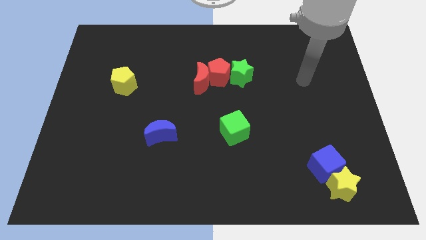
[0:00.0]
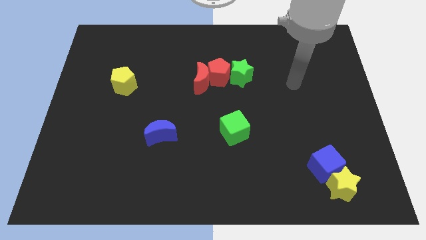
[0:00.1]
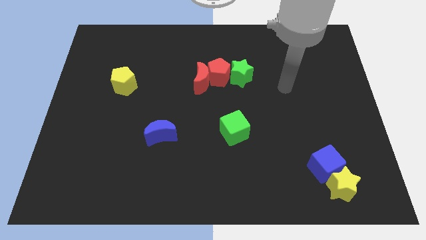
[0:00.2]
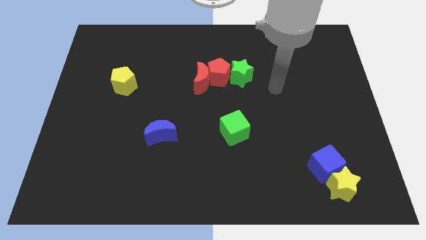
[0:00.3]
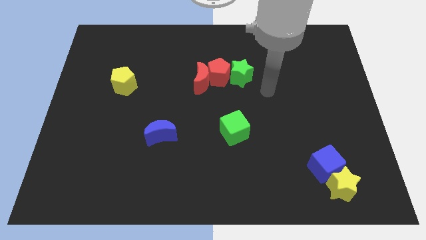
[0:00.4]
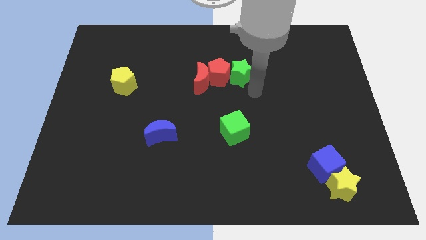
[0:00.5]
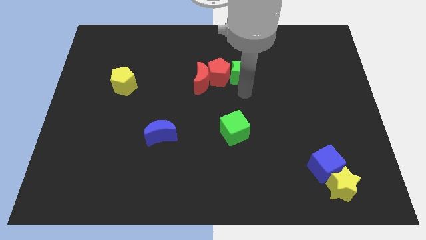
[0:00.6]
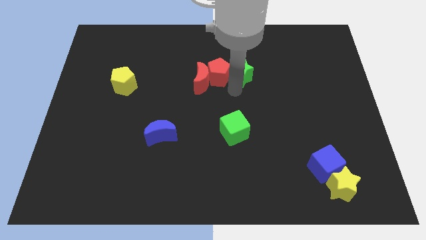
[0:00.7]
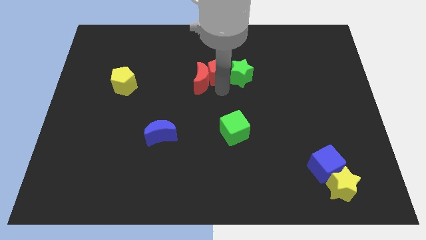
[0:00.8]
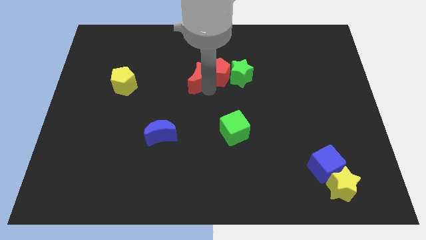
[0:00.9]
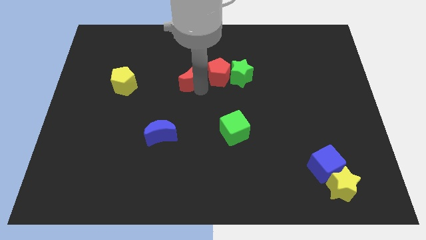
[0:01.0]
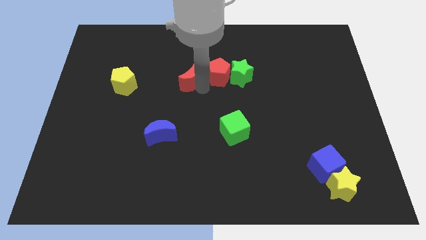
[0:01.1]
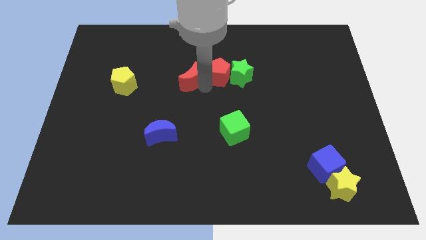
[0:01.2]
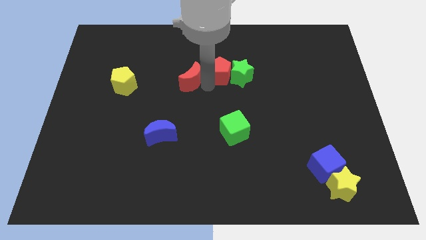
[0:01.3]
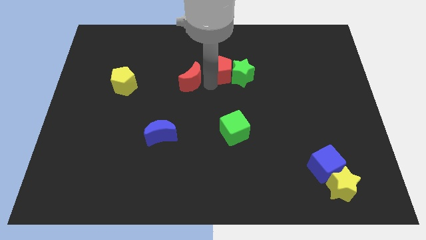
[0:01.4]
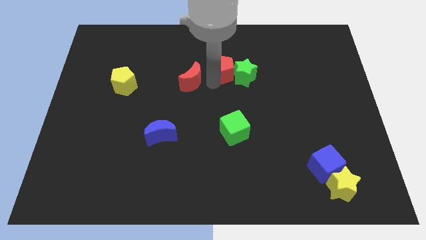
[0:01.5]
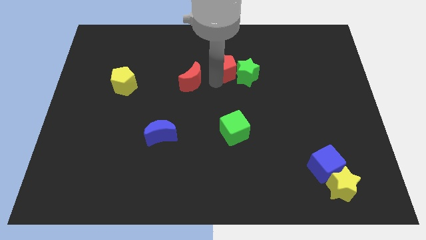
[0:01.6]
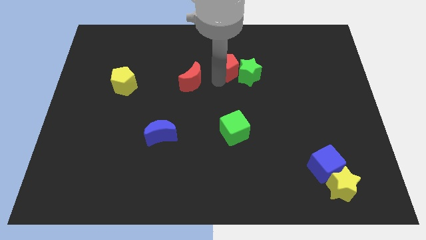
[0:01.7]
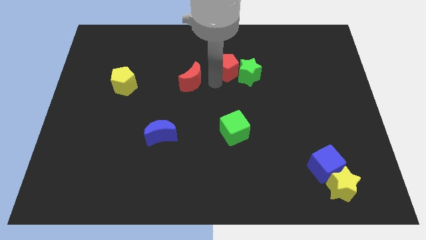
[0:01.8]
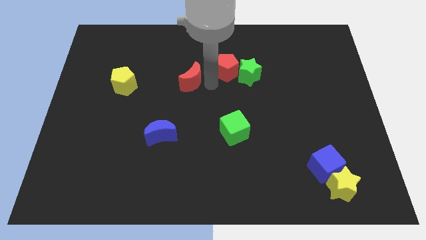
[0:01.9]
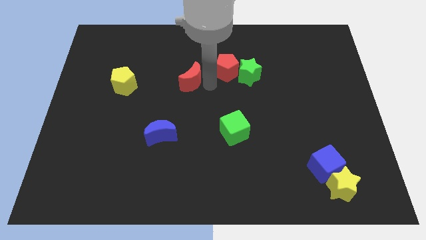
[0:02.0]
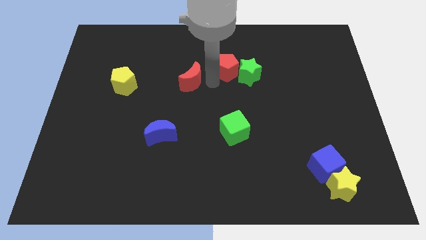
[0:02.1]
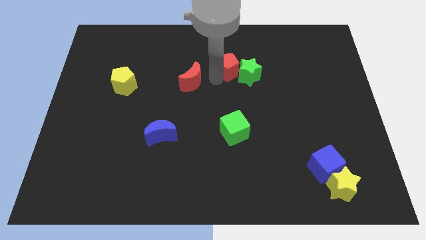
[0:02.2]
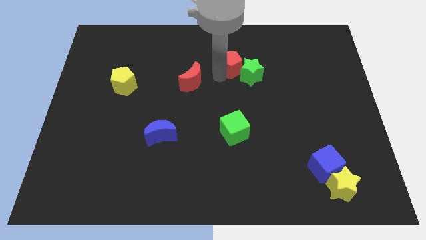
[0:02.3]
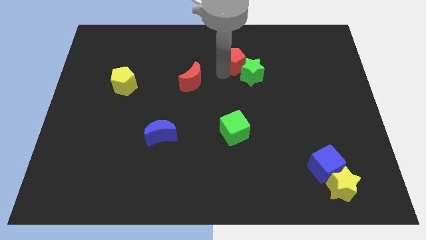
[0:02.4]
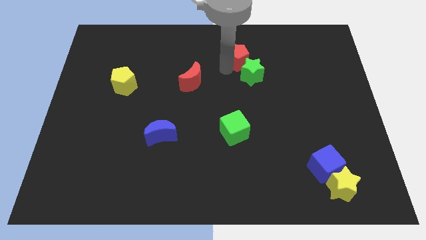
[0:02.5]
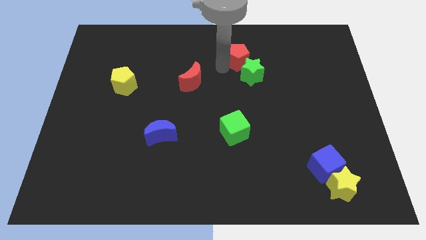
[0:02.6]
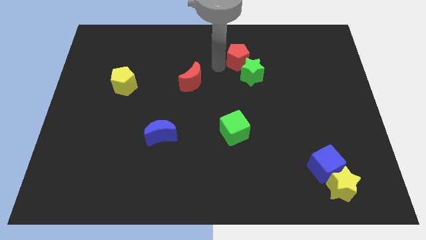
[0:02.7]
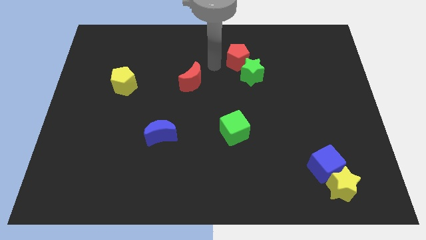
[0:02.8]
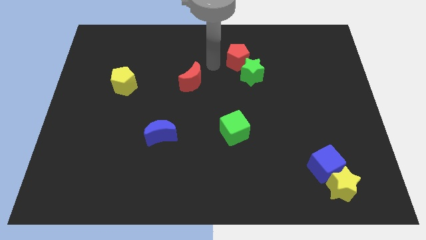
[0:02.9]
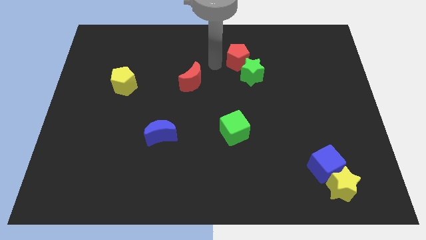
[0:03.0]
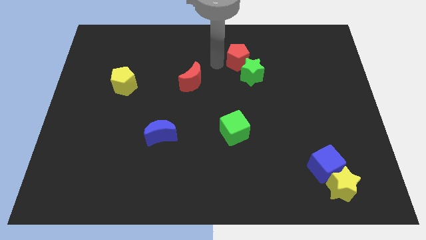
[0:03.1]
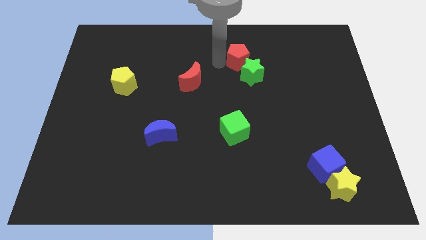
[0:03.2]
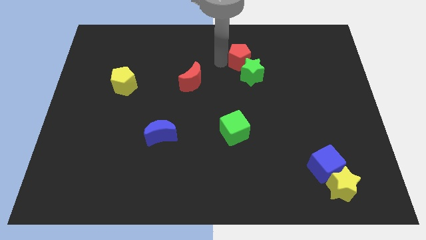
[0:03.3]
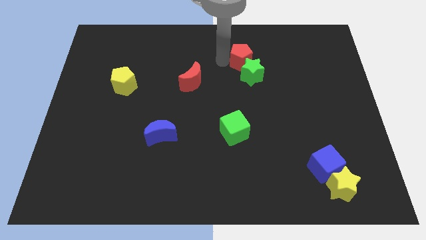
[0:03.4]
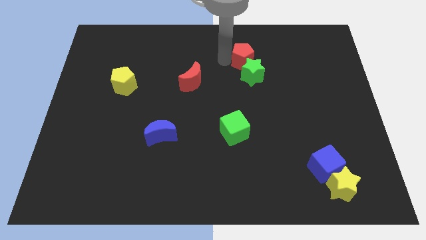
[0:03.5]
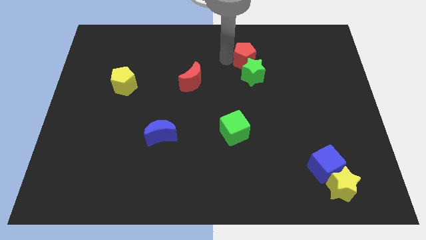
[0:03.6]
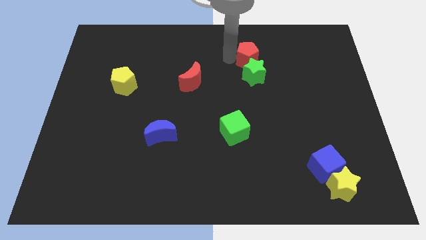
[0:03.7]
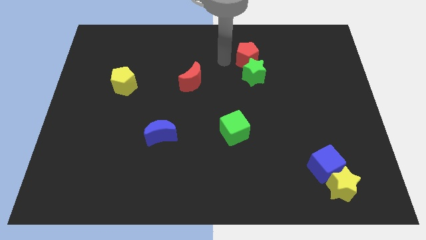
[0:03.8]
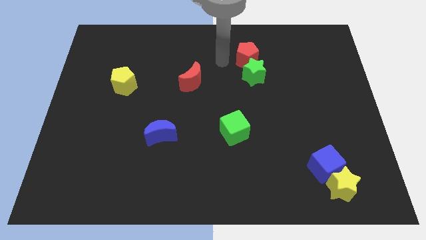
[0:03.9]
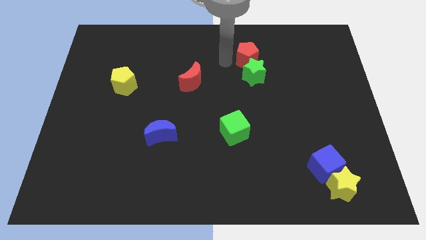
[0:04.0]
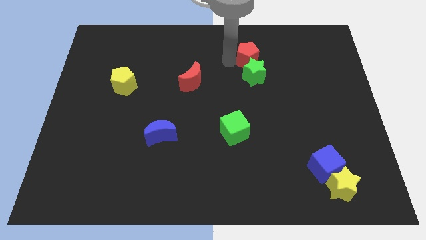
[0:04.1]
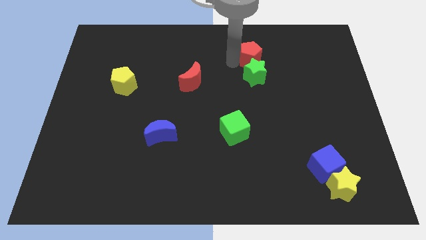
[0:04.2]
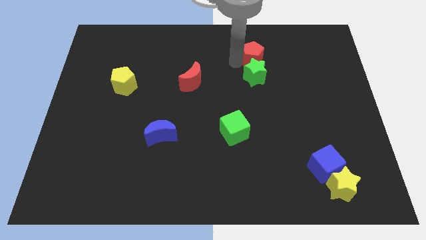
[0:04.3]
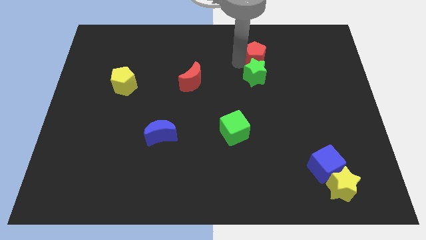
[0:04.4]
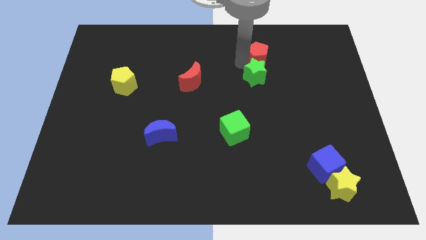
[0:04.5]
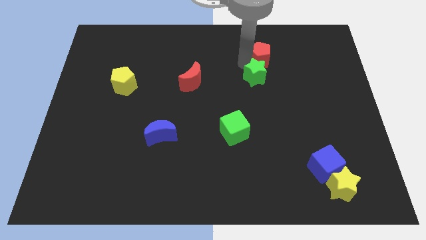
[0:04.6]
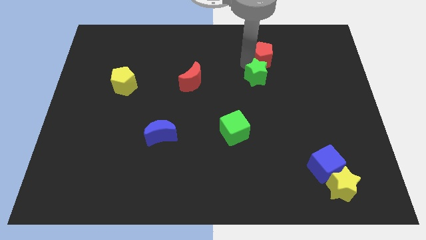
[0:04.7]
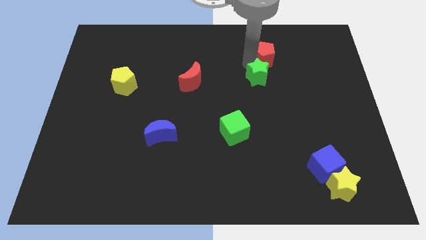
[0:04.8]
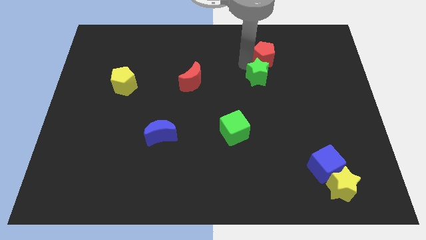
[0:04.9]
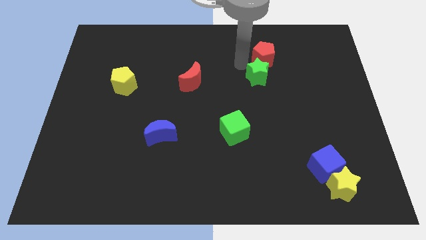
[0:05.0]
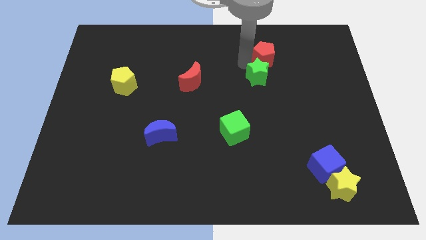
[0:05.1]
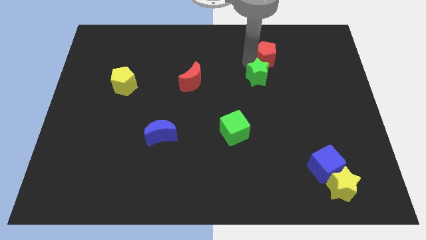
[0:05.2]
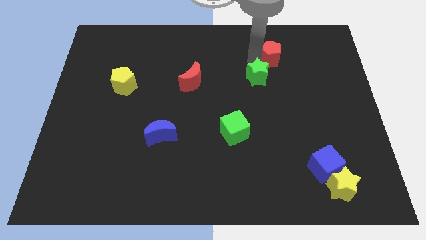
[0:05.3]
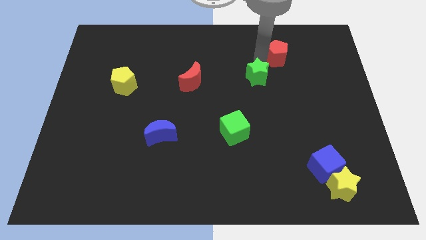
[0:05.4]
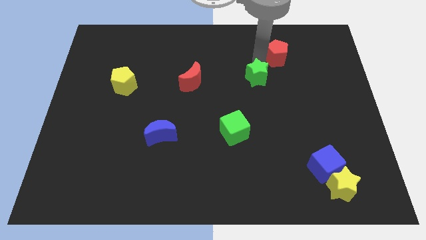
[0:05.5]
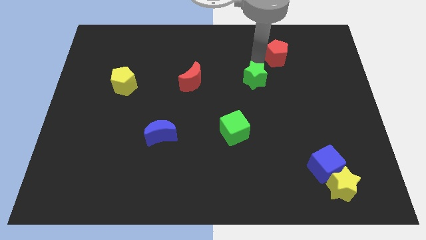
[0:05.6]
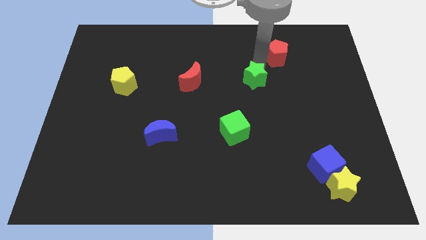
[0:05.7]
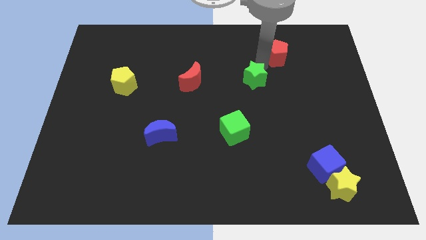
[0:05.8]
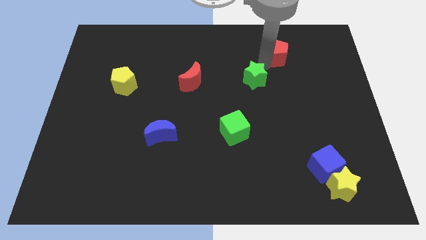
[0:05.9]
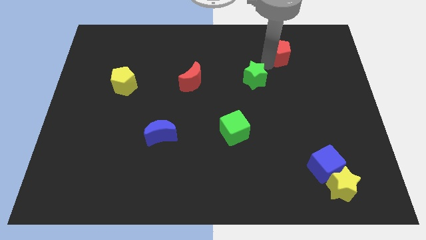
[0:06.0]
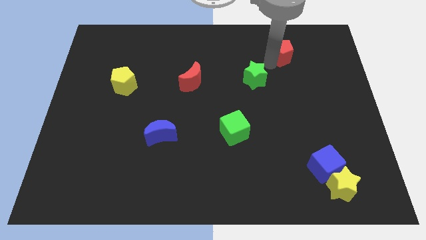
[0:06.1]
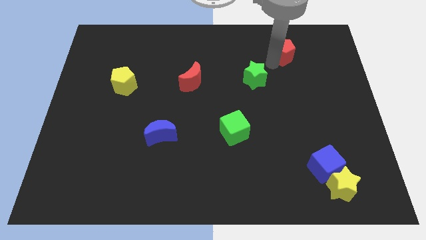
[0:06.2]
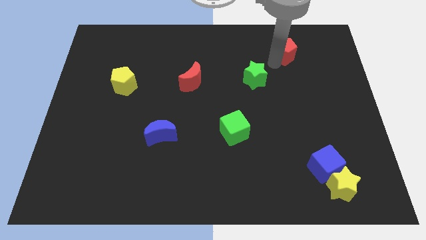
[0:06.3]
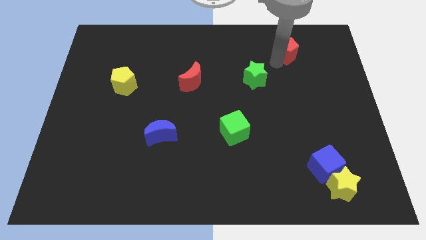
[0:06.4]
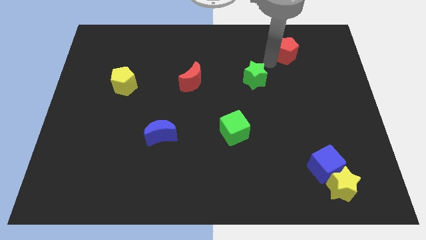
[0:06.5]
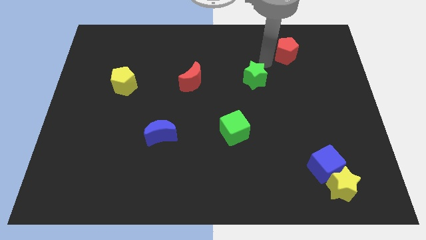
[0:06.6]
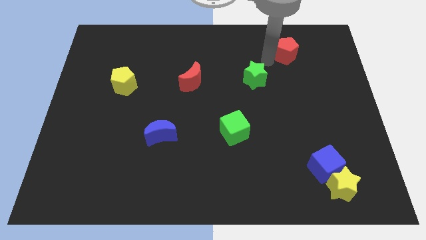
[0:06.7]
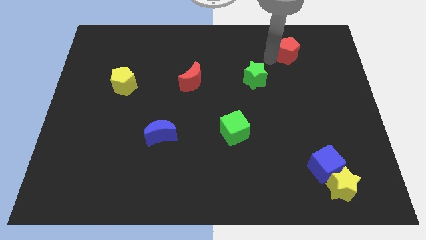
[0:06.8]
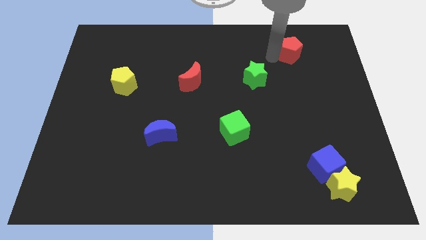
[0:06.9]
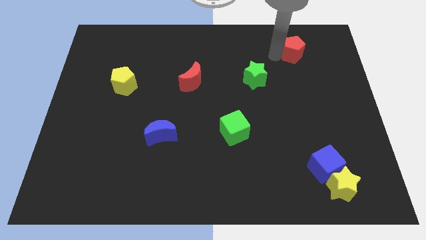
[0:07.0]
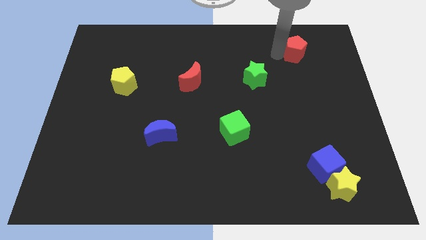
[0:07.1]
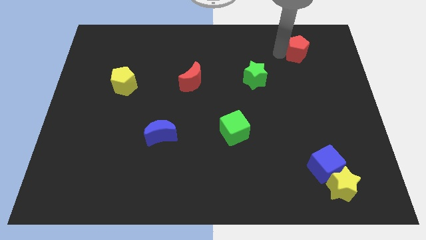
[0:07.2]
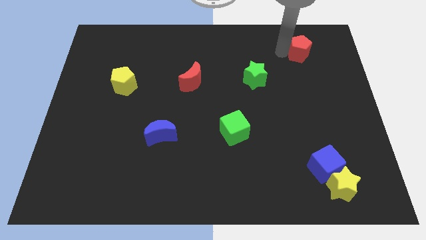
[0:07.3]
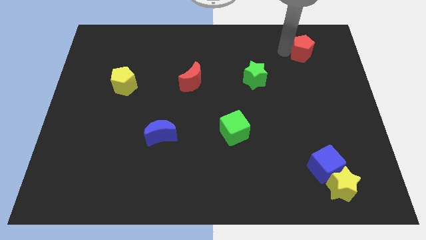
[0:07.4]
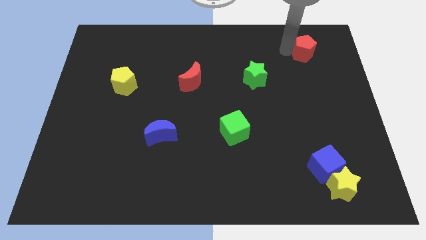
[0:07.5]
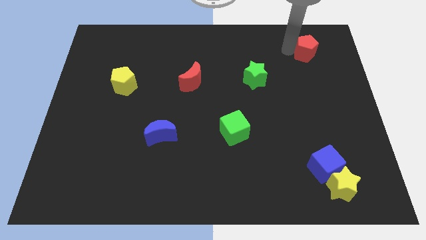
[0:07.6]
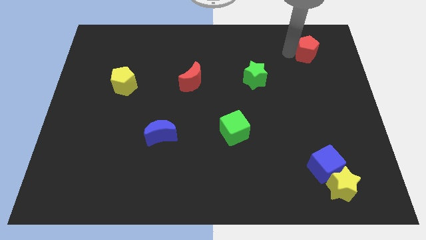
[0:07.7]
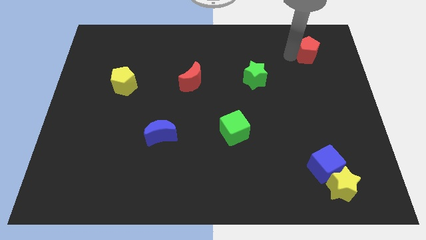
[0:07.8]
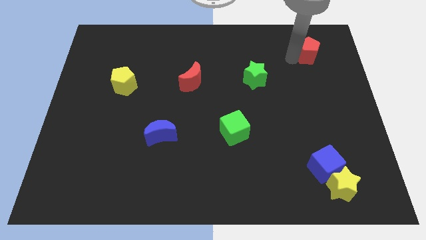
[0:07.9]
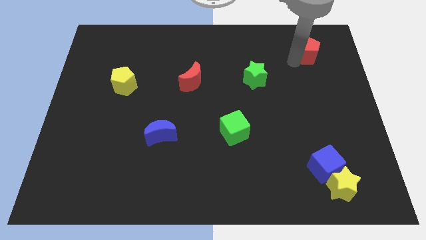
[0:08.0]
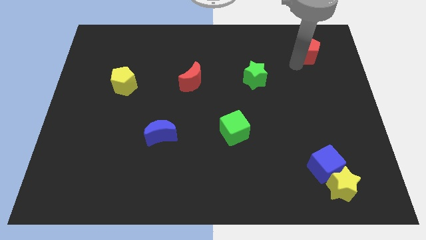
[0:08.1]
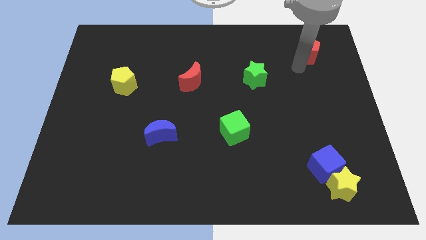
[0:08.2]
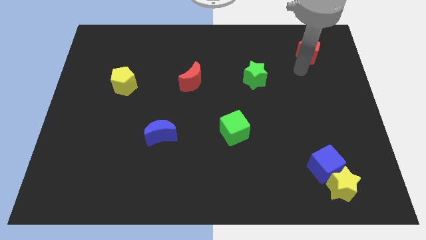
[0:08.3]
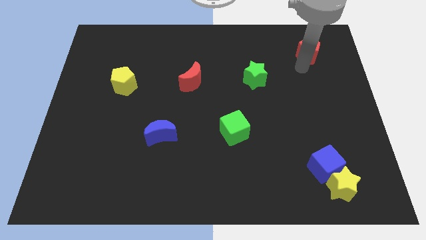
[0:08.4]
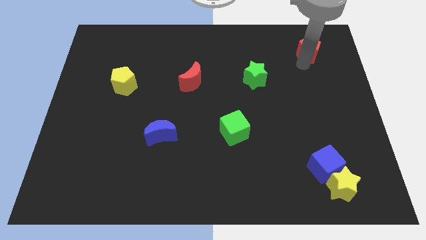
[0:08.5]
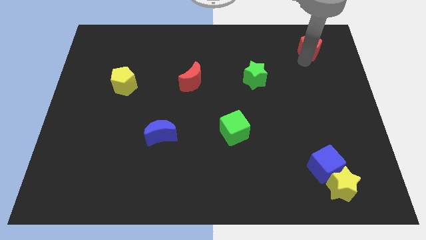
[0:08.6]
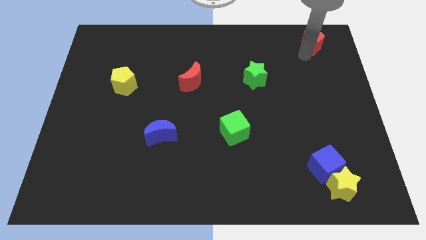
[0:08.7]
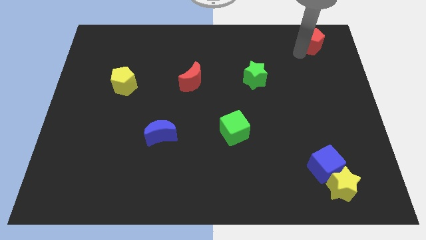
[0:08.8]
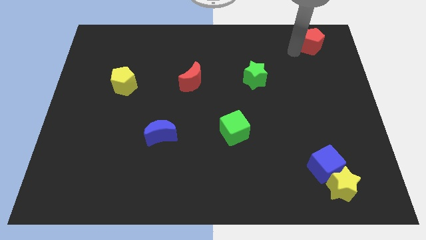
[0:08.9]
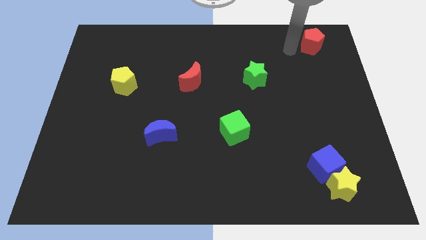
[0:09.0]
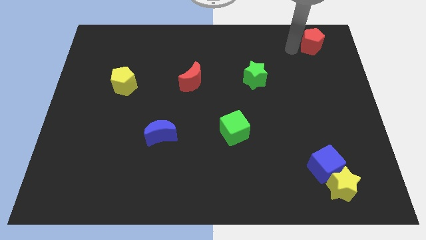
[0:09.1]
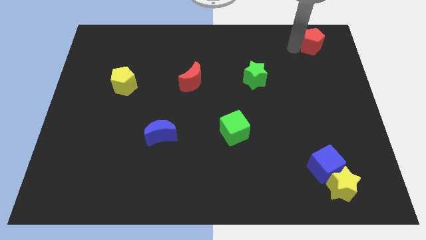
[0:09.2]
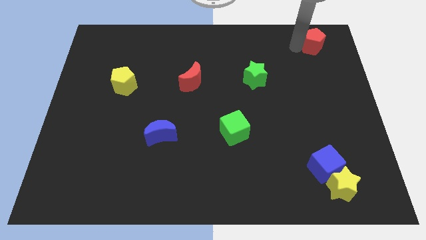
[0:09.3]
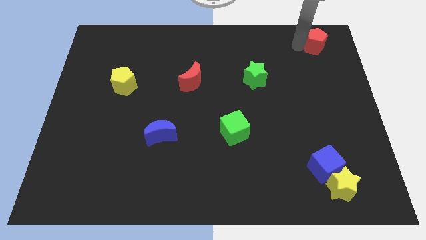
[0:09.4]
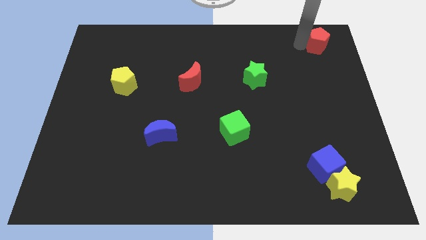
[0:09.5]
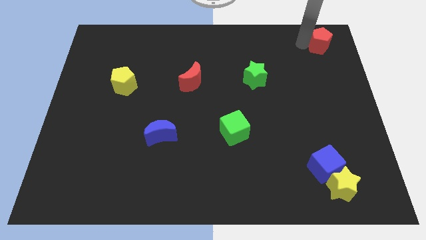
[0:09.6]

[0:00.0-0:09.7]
move the red pentagon to the top right
